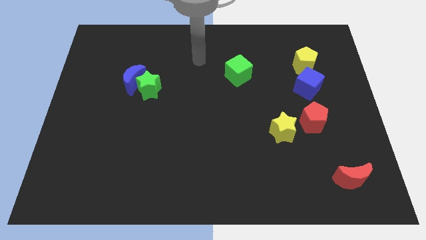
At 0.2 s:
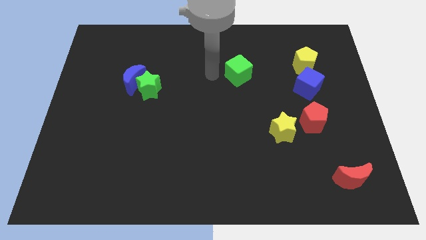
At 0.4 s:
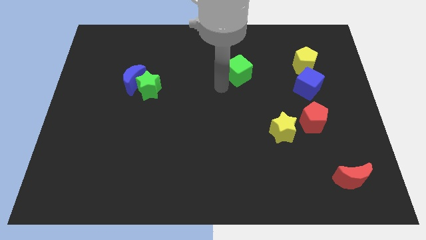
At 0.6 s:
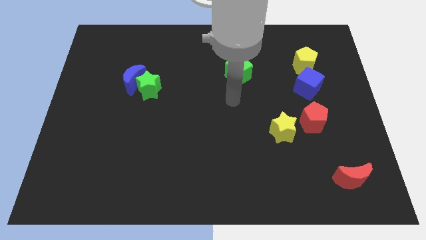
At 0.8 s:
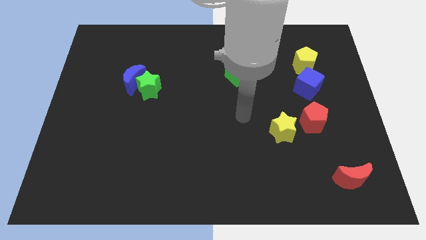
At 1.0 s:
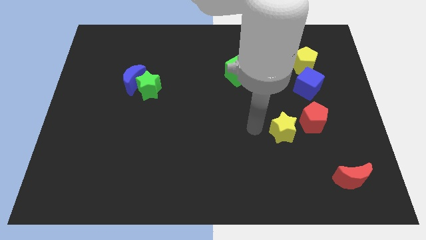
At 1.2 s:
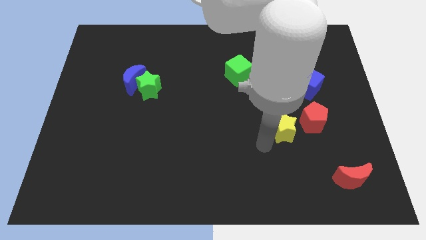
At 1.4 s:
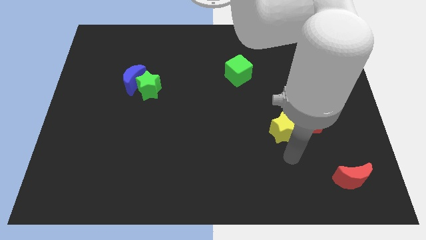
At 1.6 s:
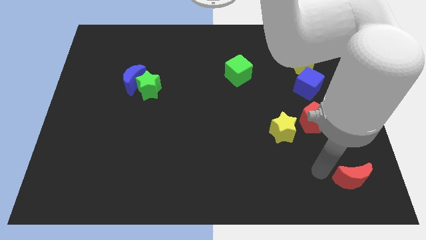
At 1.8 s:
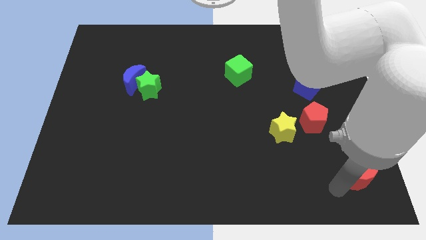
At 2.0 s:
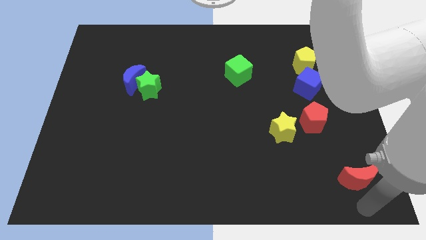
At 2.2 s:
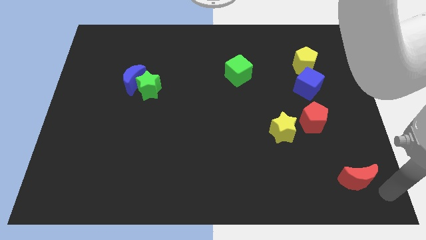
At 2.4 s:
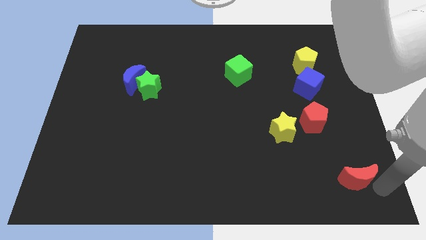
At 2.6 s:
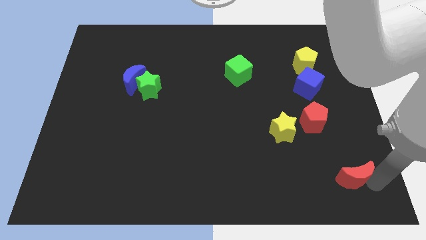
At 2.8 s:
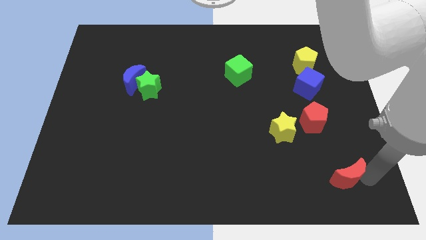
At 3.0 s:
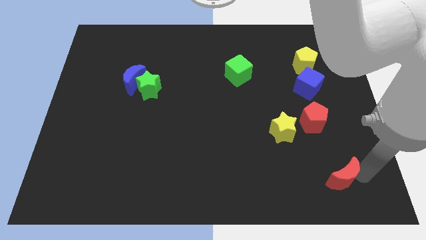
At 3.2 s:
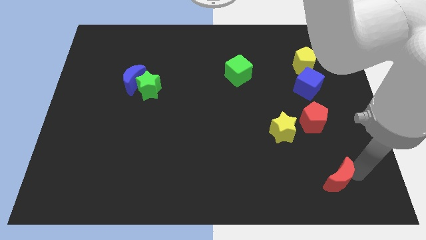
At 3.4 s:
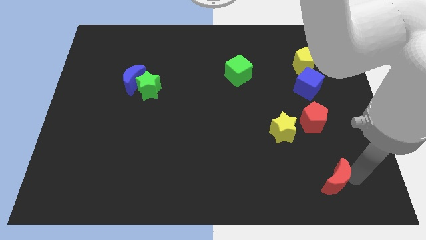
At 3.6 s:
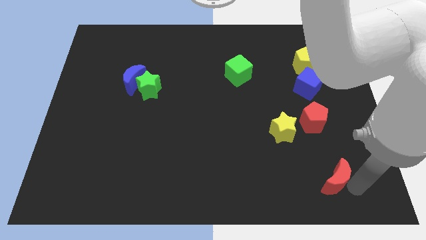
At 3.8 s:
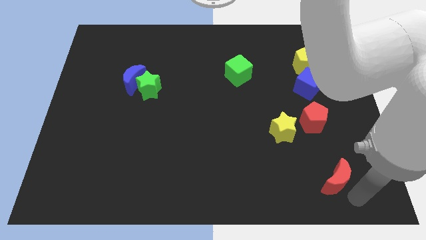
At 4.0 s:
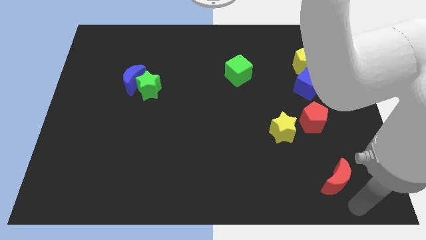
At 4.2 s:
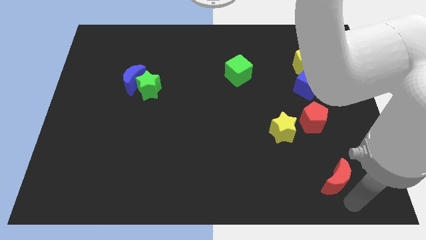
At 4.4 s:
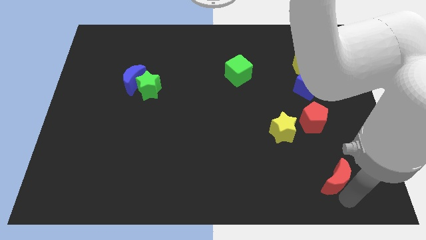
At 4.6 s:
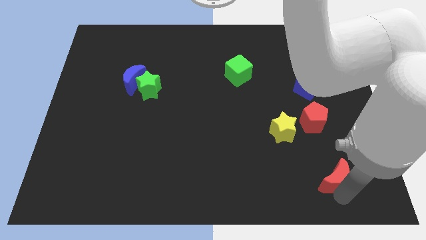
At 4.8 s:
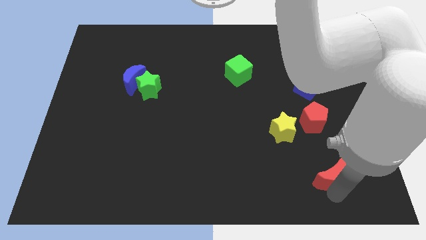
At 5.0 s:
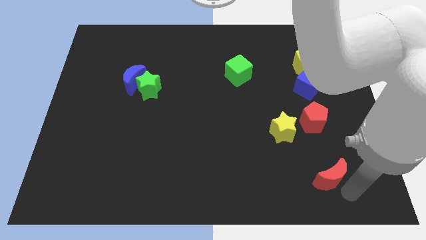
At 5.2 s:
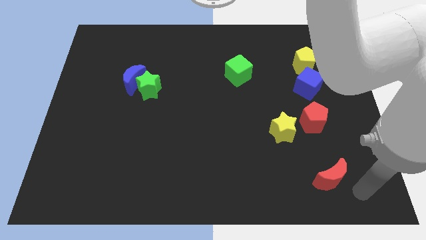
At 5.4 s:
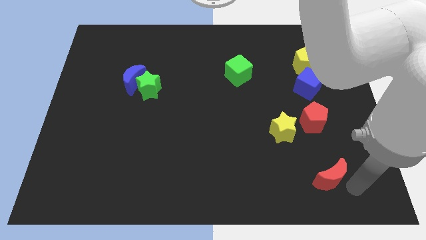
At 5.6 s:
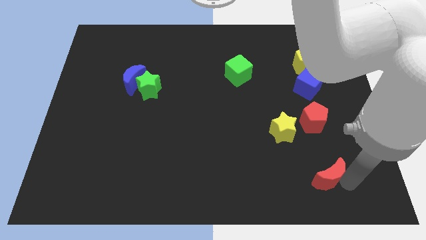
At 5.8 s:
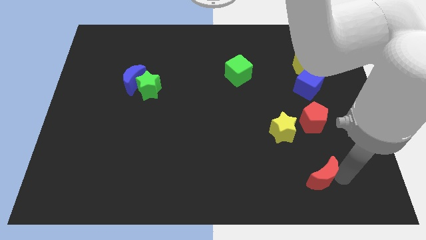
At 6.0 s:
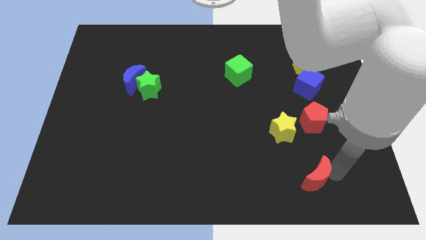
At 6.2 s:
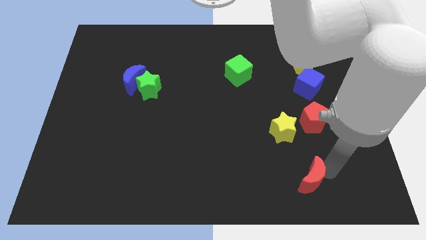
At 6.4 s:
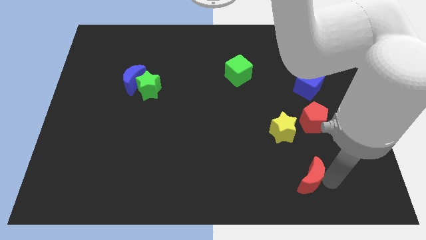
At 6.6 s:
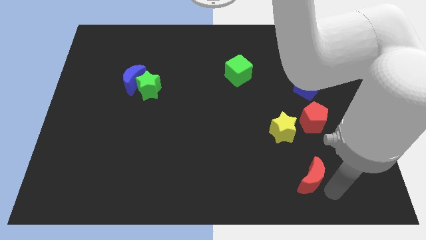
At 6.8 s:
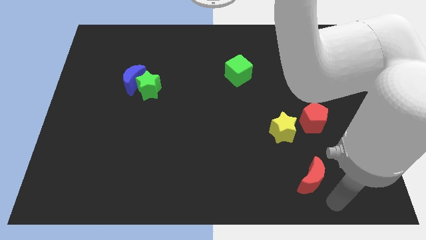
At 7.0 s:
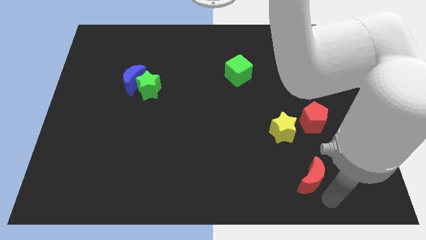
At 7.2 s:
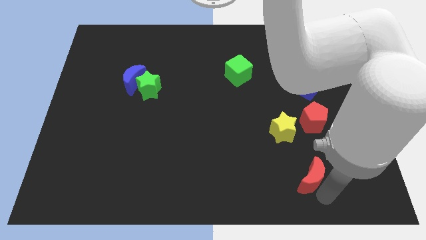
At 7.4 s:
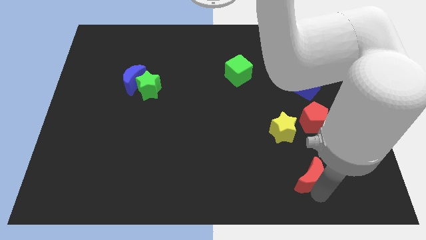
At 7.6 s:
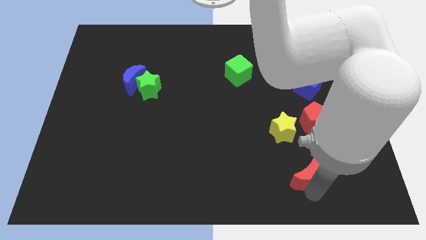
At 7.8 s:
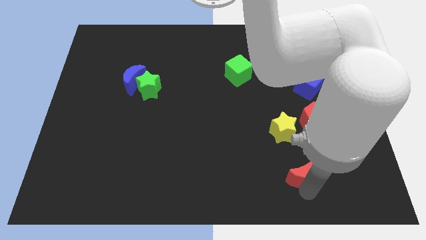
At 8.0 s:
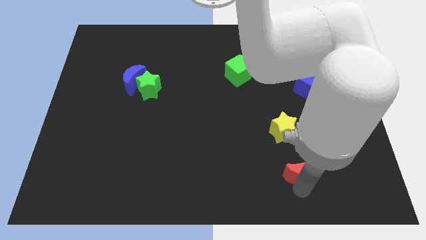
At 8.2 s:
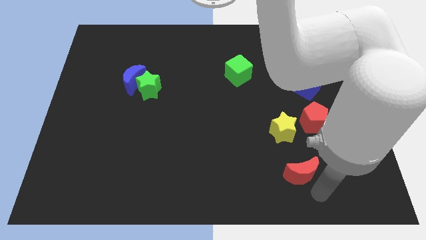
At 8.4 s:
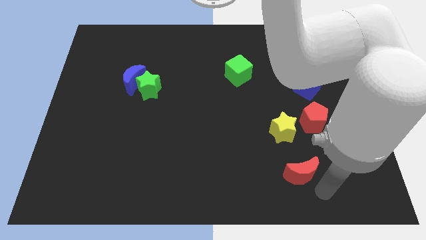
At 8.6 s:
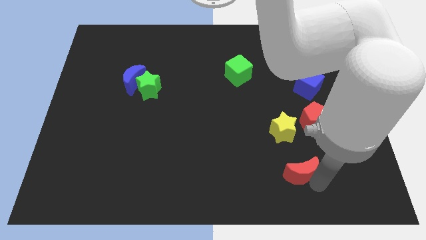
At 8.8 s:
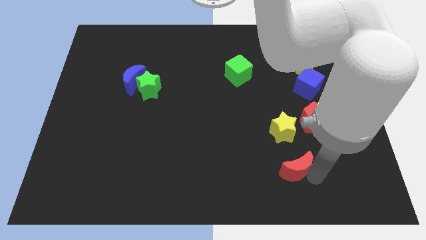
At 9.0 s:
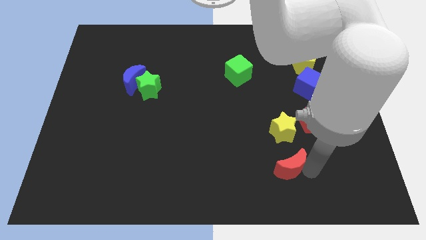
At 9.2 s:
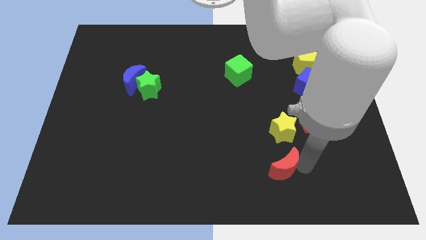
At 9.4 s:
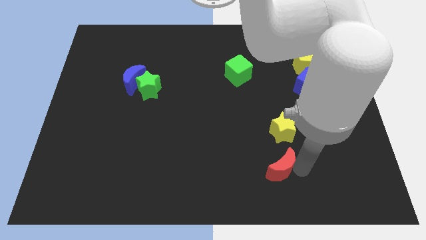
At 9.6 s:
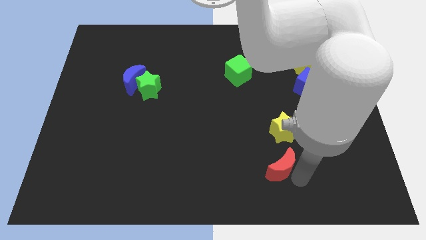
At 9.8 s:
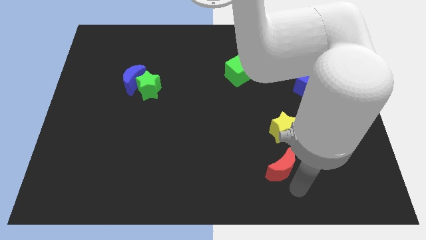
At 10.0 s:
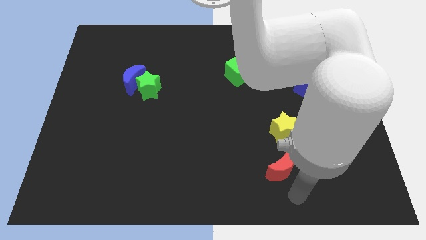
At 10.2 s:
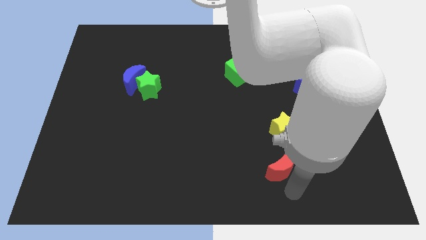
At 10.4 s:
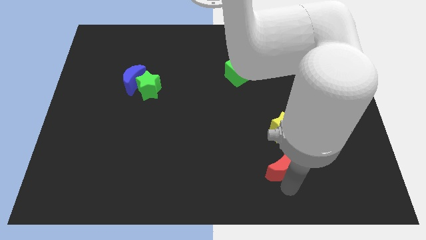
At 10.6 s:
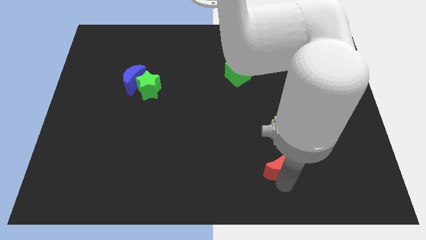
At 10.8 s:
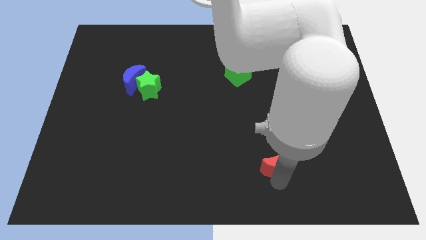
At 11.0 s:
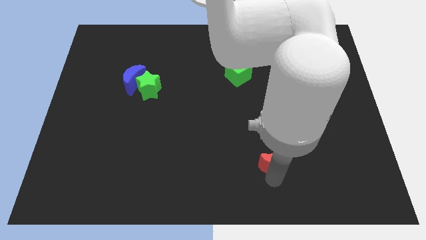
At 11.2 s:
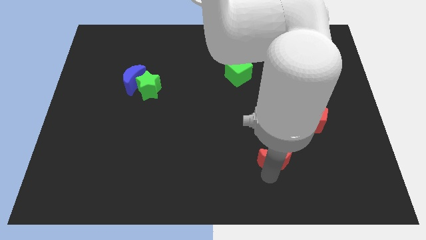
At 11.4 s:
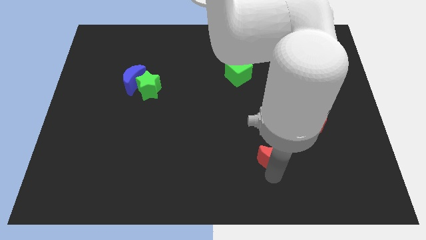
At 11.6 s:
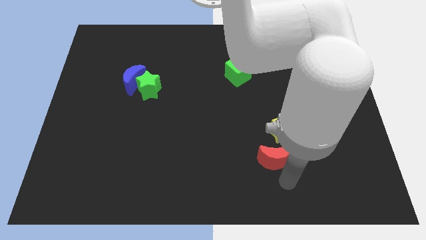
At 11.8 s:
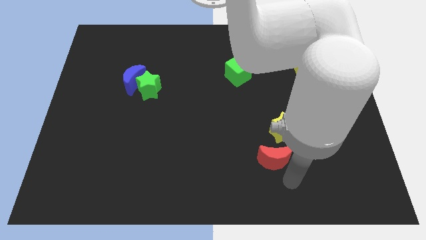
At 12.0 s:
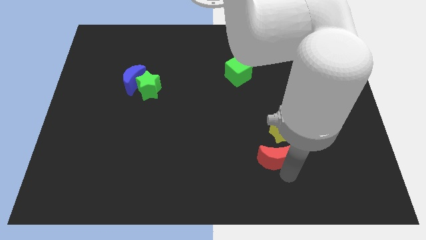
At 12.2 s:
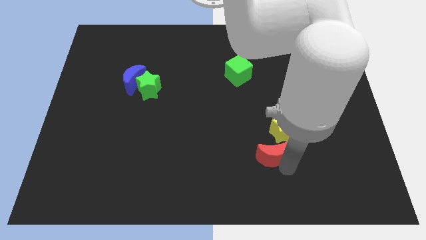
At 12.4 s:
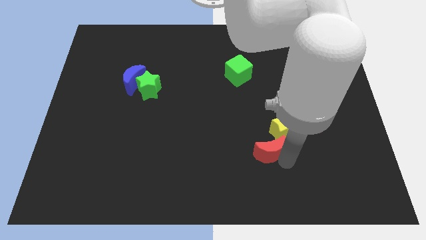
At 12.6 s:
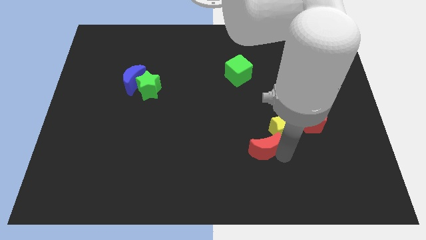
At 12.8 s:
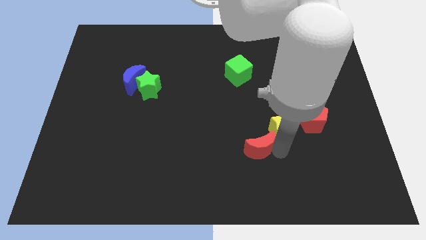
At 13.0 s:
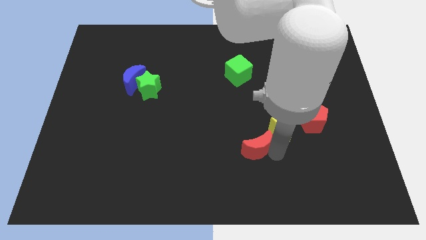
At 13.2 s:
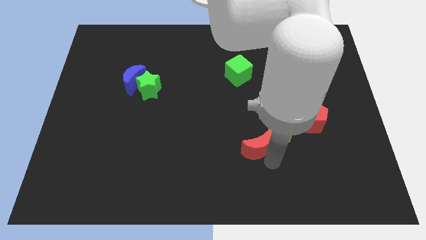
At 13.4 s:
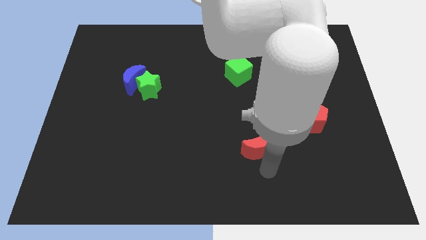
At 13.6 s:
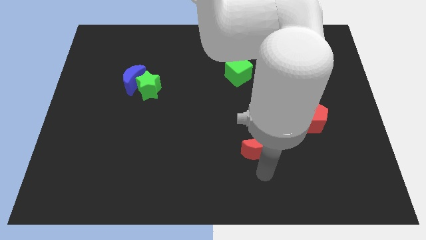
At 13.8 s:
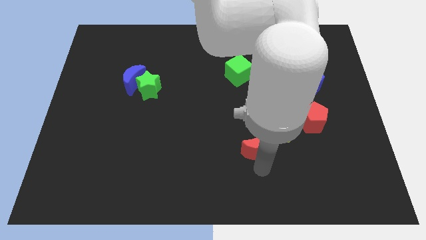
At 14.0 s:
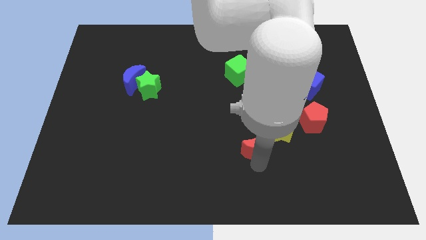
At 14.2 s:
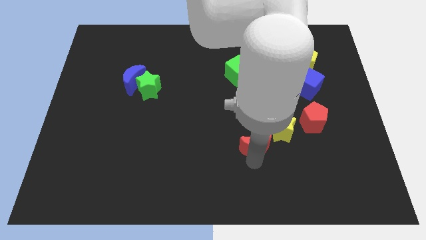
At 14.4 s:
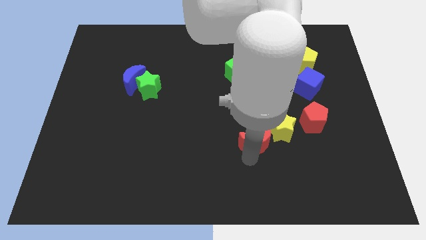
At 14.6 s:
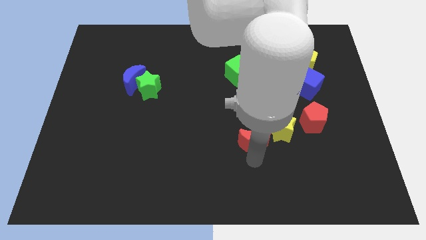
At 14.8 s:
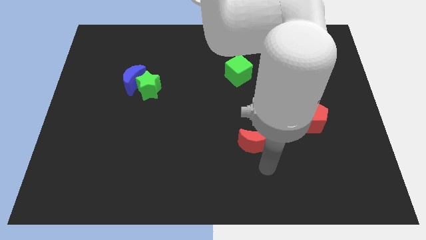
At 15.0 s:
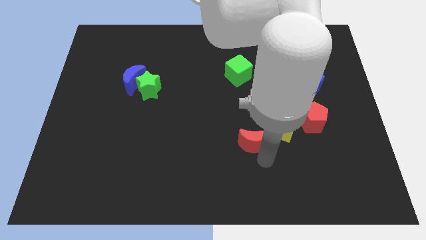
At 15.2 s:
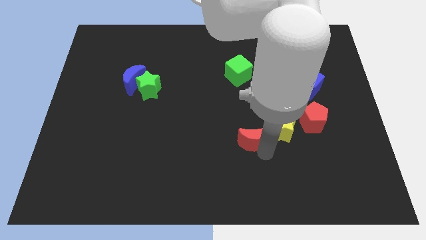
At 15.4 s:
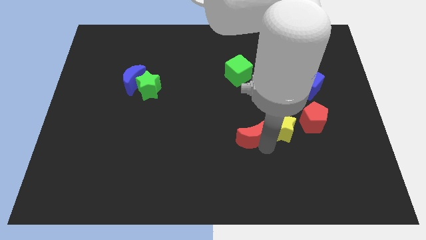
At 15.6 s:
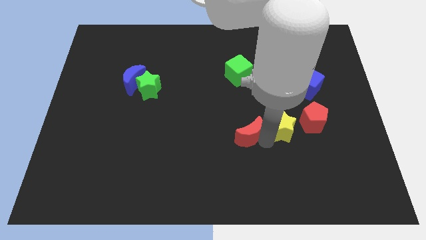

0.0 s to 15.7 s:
push the red moon up and to the left

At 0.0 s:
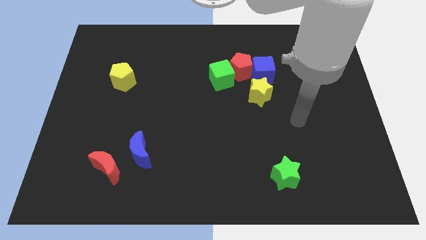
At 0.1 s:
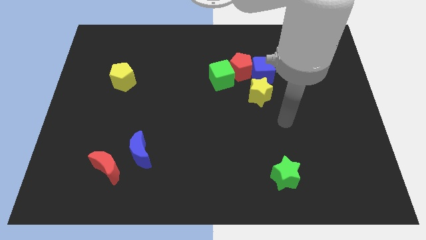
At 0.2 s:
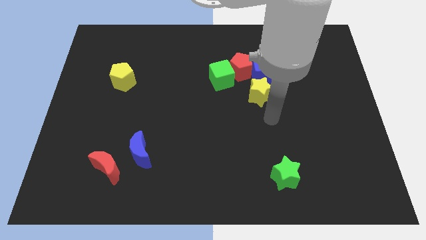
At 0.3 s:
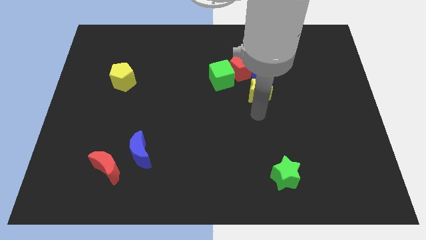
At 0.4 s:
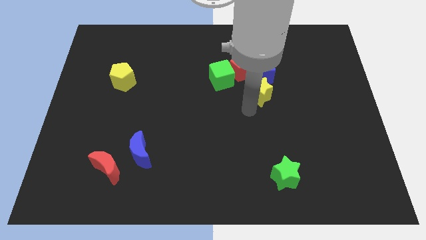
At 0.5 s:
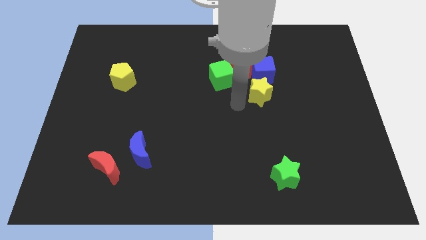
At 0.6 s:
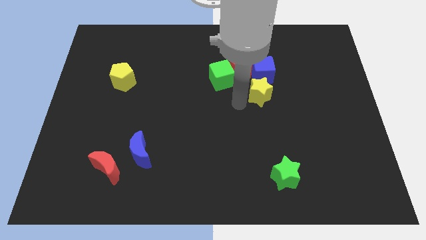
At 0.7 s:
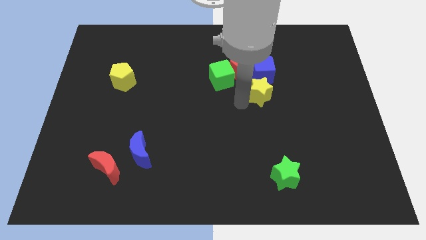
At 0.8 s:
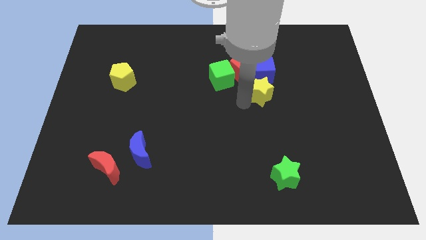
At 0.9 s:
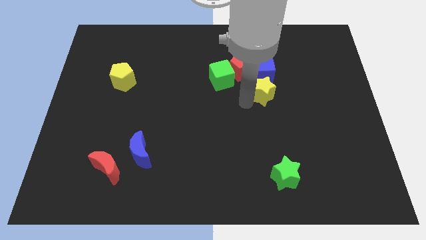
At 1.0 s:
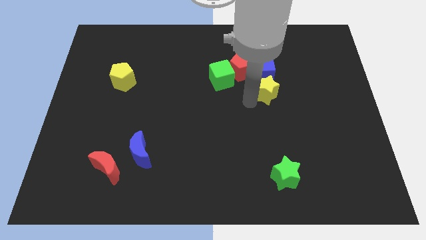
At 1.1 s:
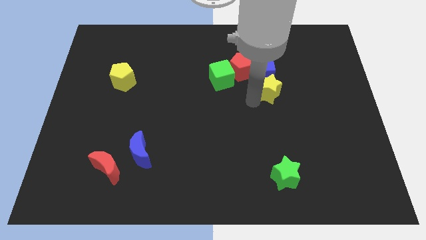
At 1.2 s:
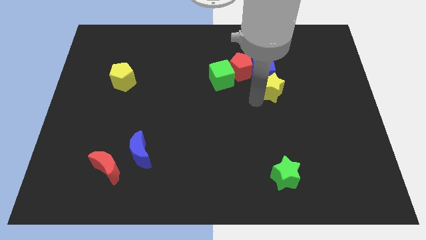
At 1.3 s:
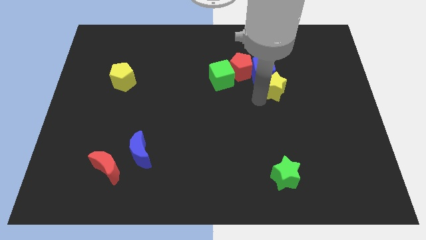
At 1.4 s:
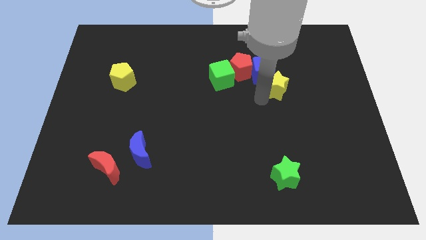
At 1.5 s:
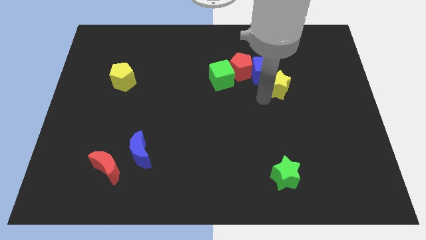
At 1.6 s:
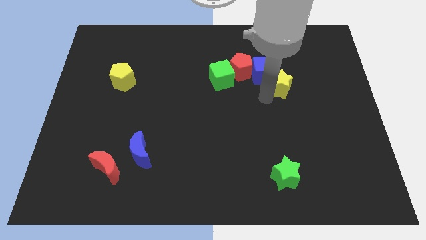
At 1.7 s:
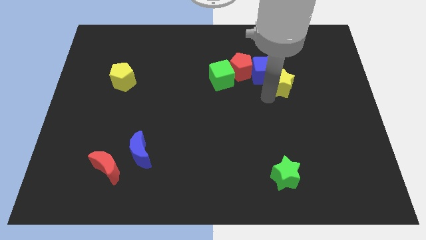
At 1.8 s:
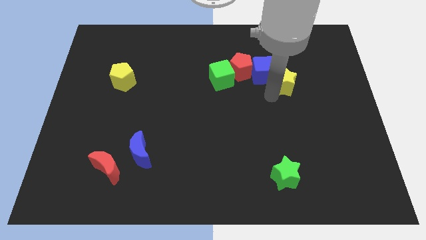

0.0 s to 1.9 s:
slightly push the yellow star up and right diagonally
